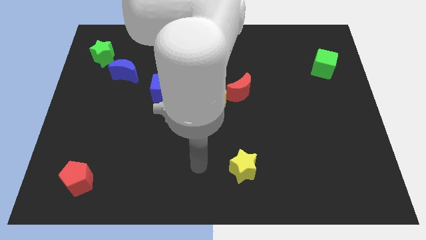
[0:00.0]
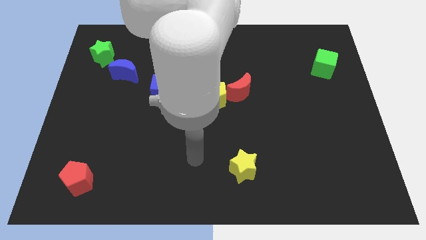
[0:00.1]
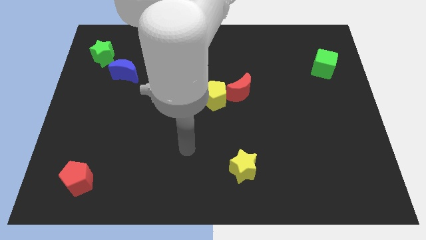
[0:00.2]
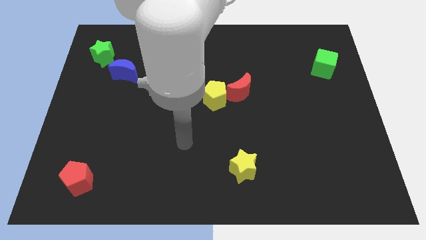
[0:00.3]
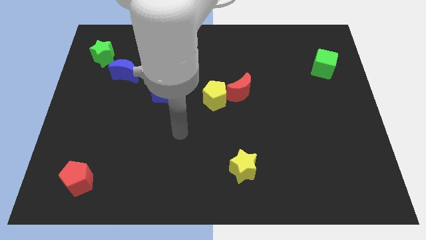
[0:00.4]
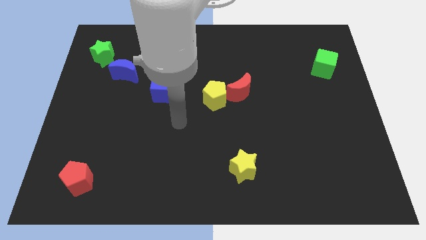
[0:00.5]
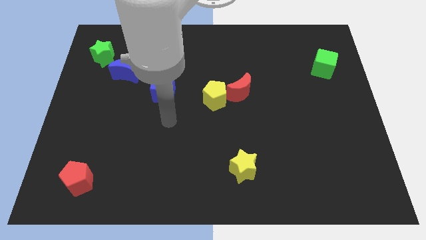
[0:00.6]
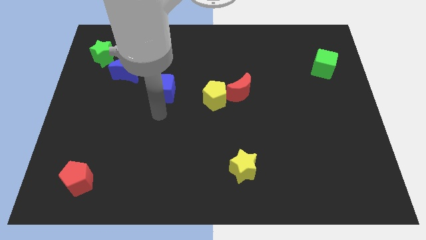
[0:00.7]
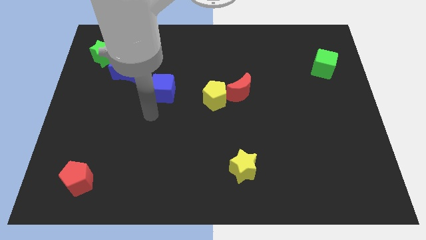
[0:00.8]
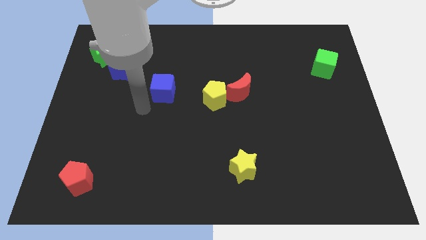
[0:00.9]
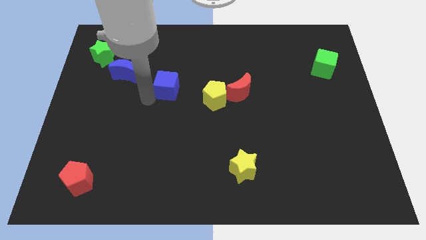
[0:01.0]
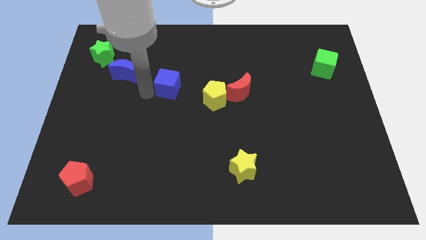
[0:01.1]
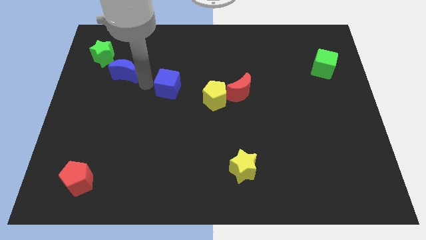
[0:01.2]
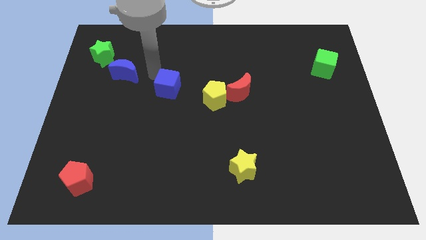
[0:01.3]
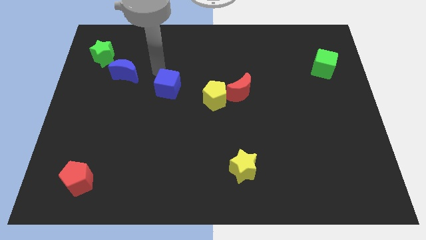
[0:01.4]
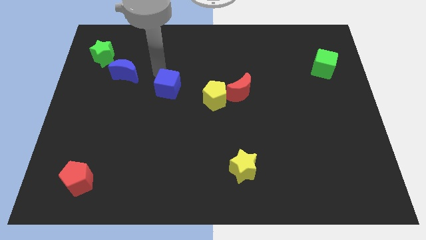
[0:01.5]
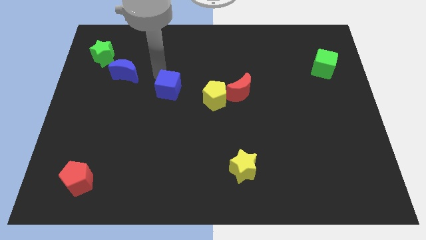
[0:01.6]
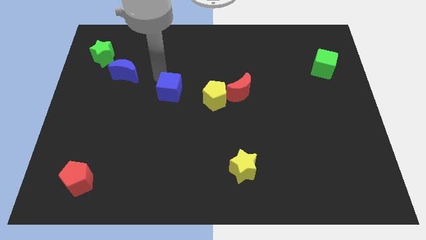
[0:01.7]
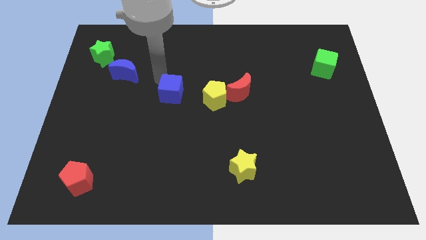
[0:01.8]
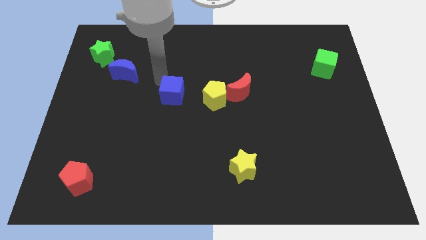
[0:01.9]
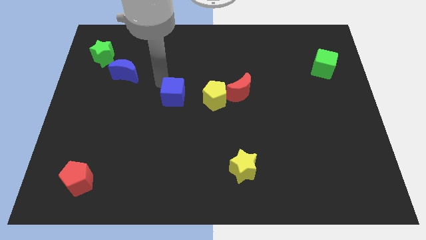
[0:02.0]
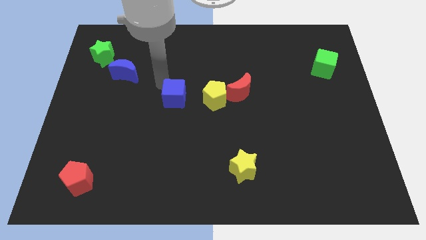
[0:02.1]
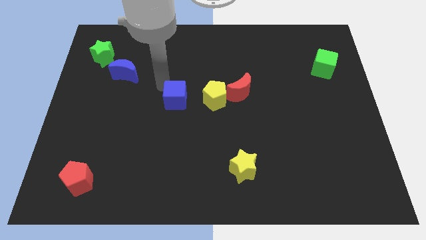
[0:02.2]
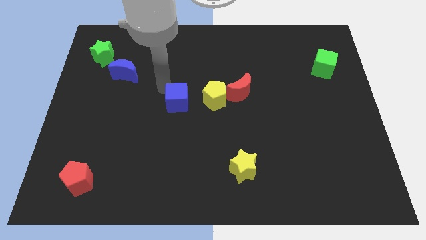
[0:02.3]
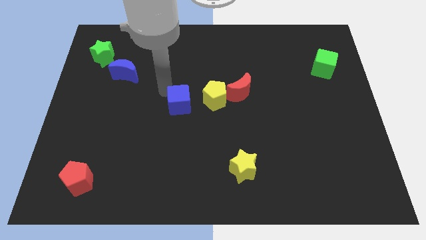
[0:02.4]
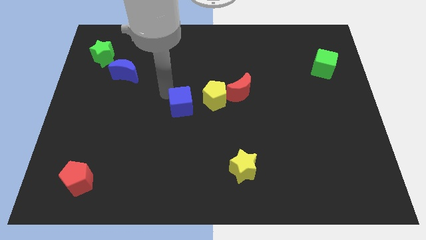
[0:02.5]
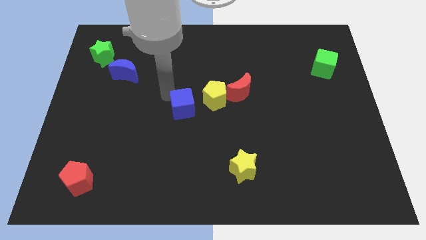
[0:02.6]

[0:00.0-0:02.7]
slightly move the blue cube diagonally down and right

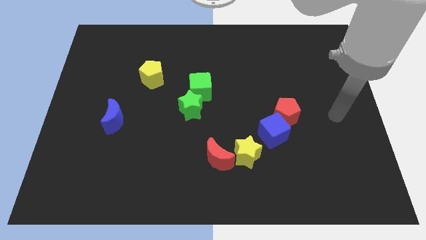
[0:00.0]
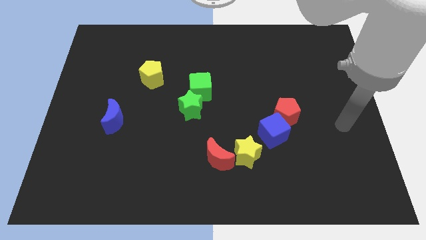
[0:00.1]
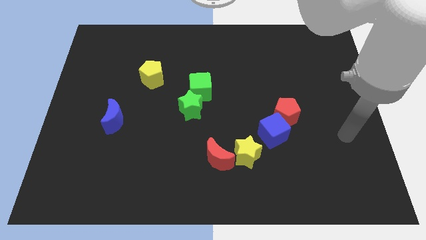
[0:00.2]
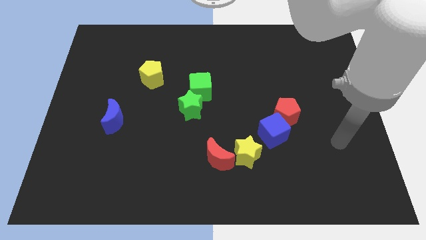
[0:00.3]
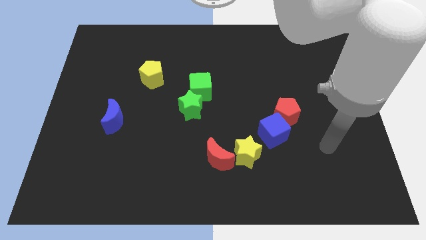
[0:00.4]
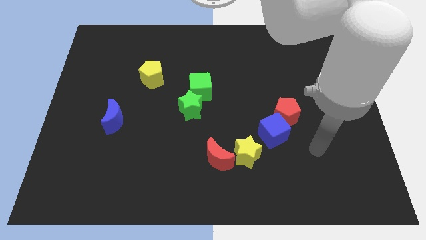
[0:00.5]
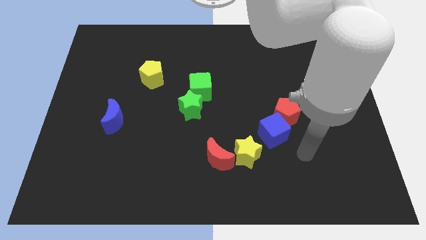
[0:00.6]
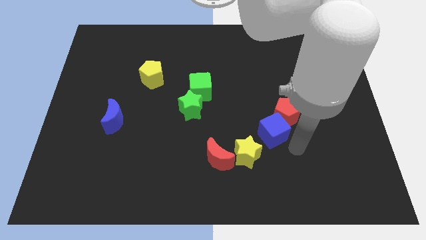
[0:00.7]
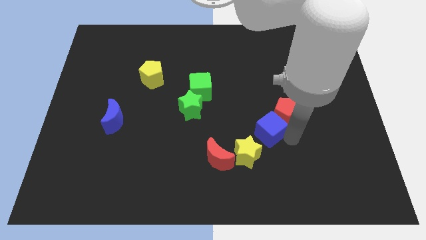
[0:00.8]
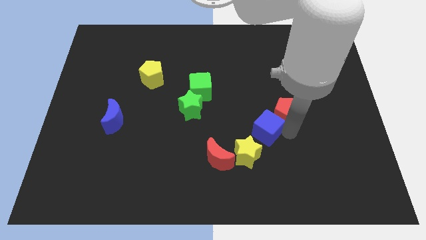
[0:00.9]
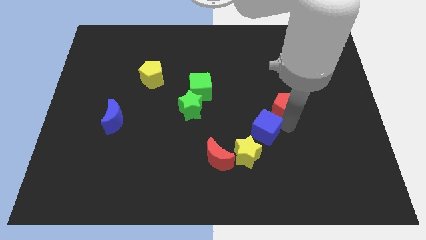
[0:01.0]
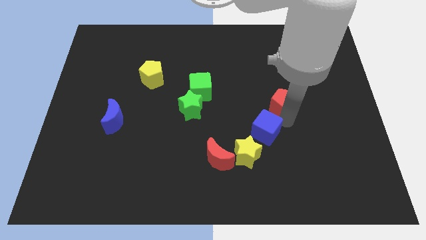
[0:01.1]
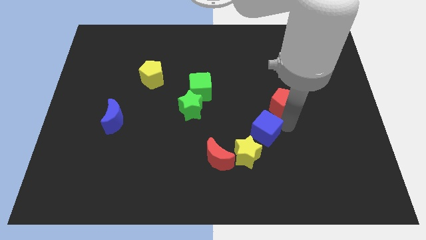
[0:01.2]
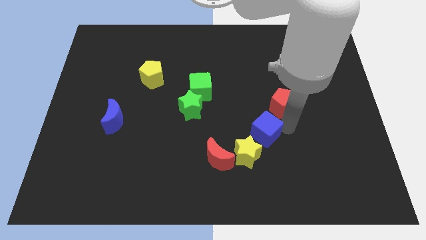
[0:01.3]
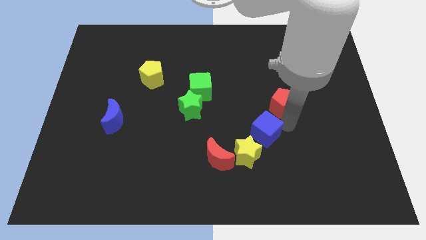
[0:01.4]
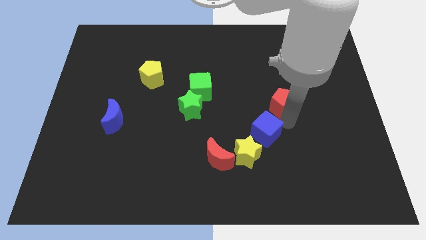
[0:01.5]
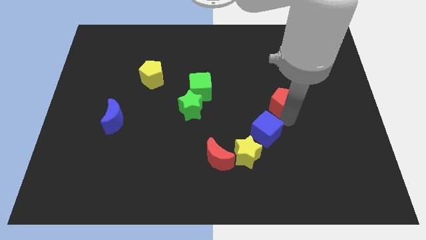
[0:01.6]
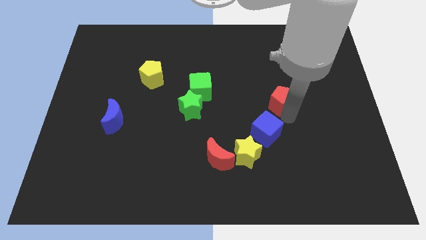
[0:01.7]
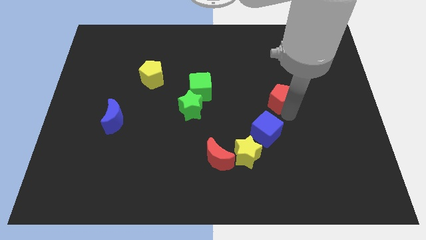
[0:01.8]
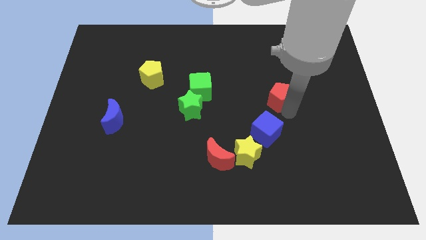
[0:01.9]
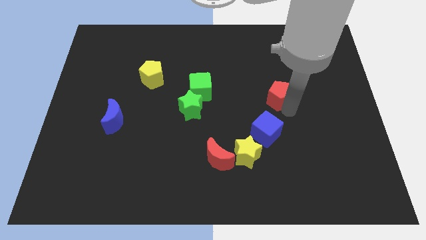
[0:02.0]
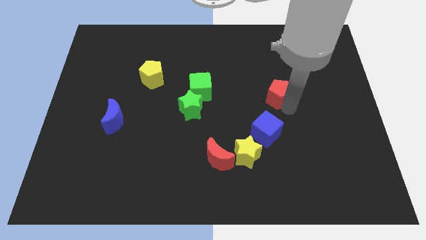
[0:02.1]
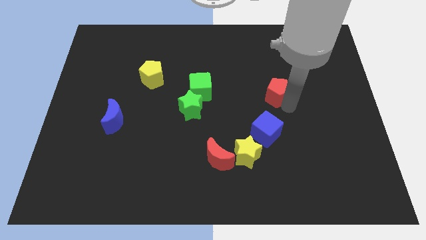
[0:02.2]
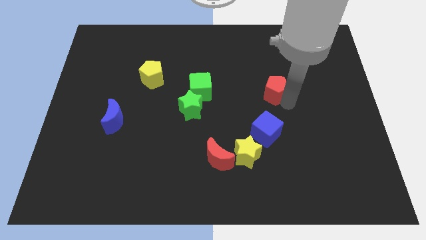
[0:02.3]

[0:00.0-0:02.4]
slightly move the red pentagon upwards

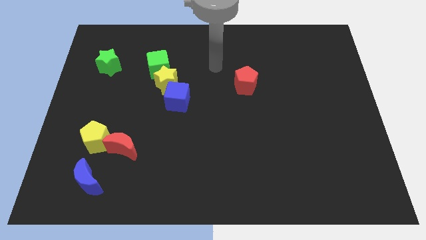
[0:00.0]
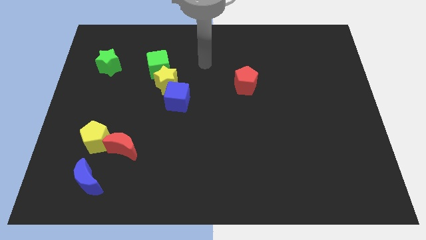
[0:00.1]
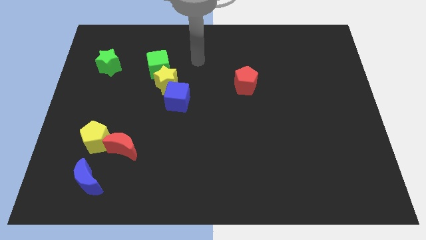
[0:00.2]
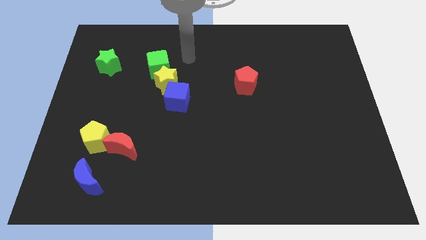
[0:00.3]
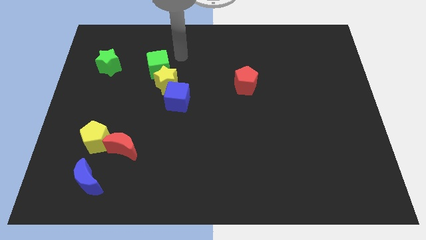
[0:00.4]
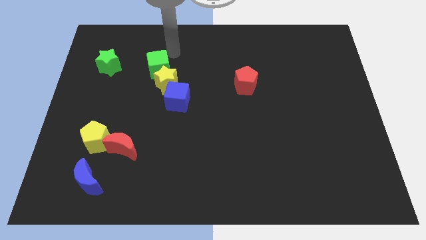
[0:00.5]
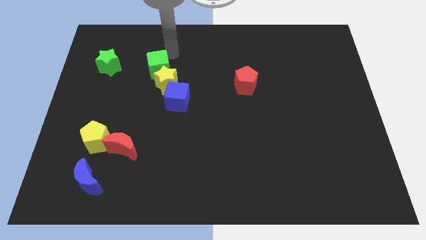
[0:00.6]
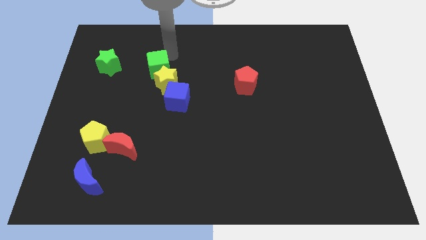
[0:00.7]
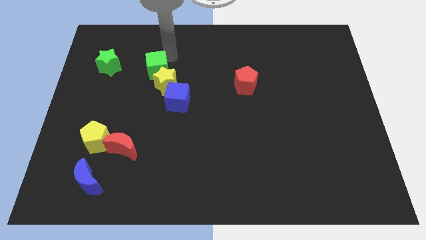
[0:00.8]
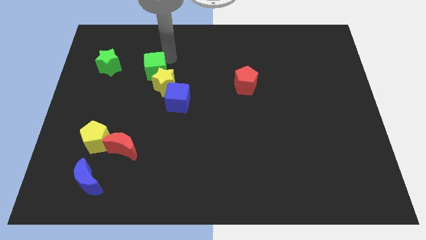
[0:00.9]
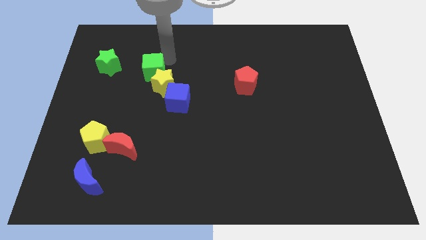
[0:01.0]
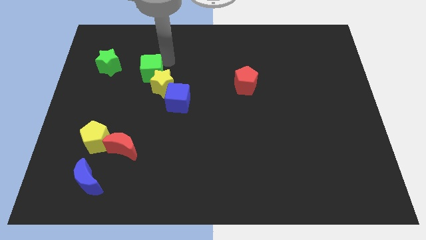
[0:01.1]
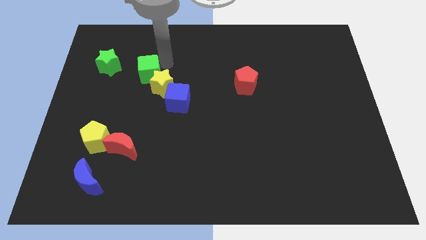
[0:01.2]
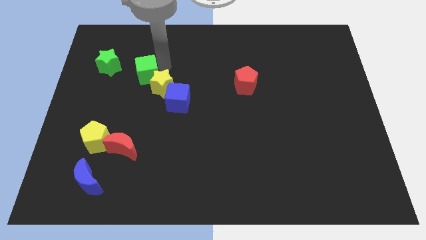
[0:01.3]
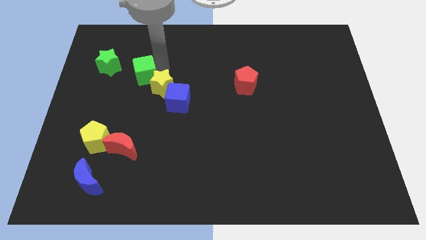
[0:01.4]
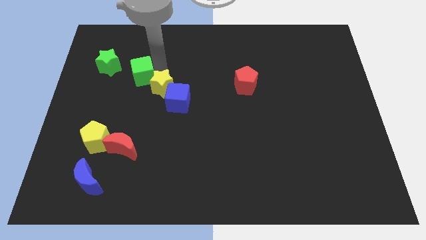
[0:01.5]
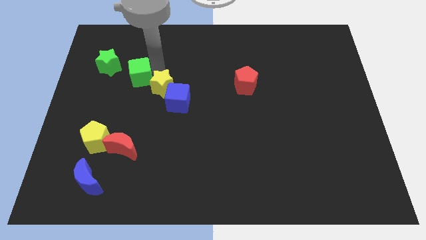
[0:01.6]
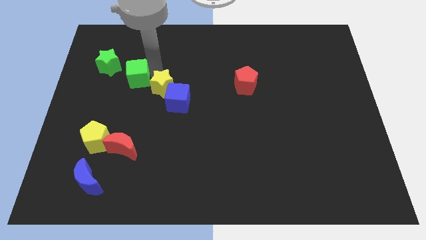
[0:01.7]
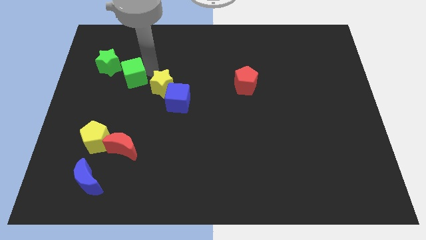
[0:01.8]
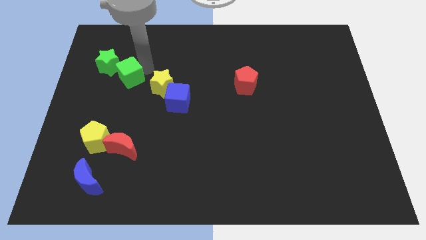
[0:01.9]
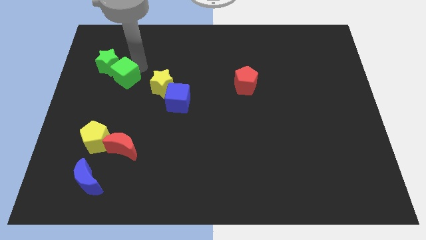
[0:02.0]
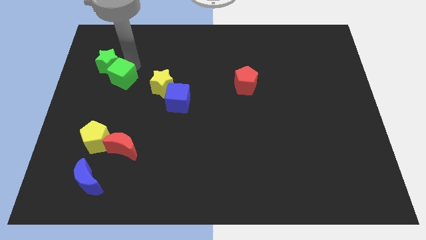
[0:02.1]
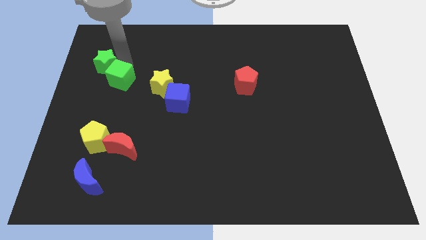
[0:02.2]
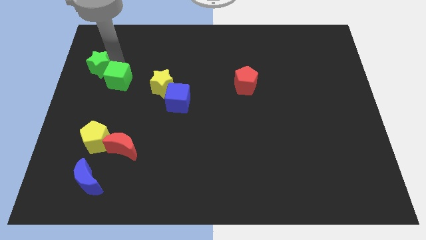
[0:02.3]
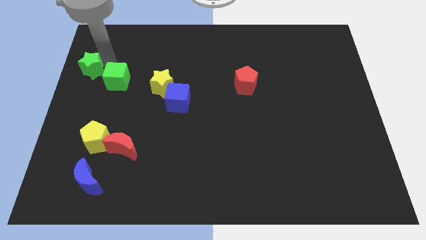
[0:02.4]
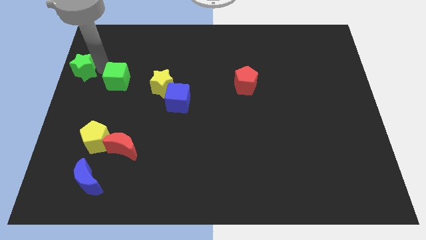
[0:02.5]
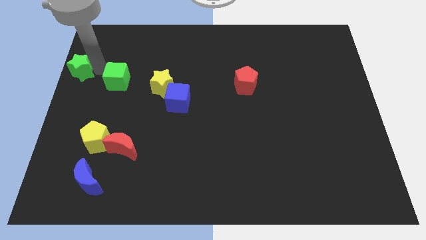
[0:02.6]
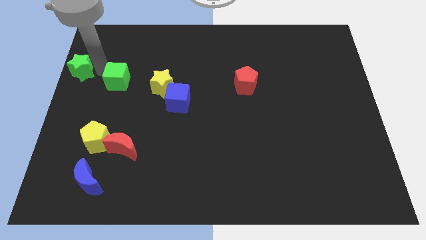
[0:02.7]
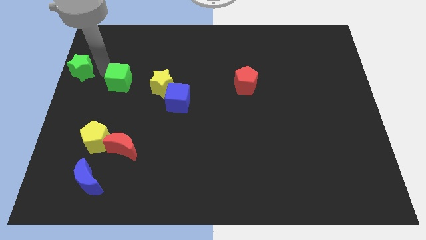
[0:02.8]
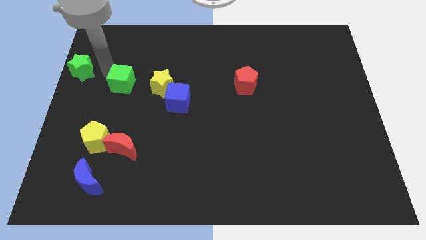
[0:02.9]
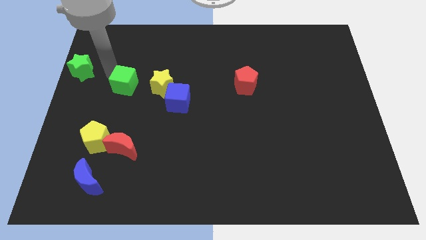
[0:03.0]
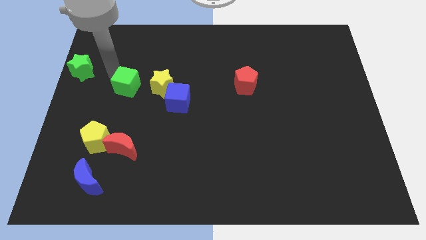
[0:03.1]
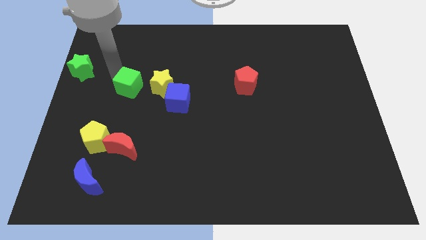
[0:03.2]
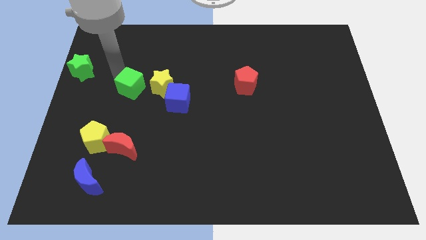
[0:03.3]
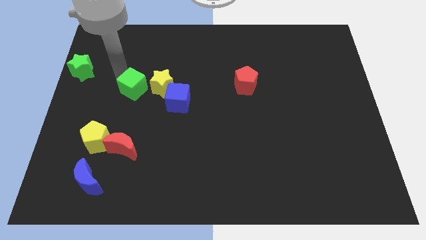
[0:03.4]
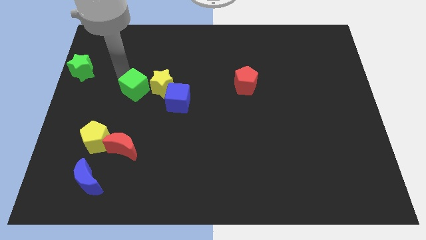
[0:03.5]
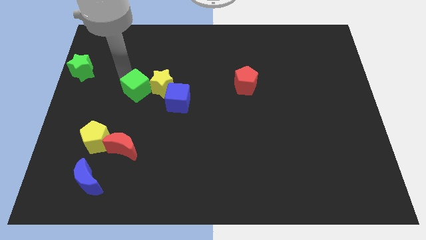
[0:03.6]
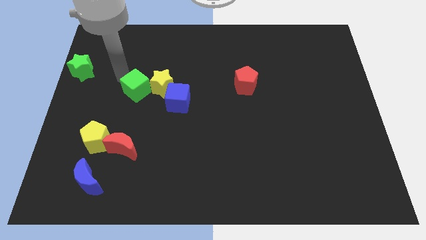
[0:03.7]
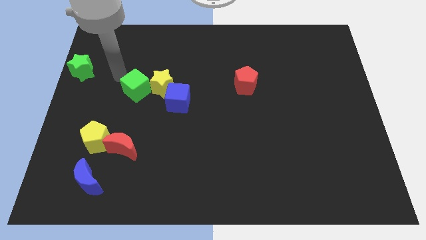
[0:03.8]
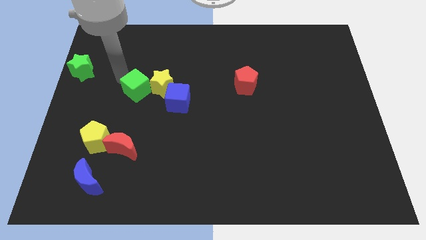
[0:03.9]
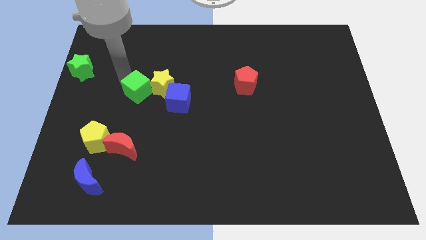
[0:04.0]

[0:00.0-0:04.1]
push the green cube somewhat down
